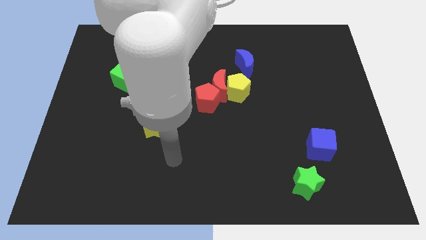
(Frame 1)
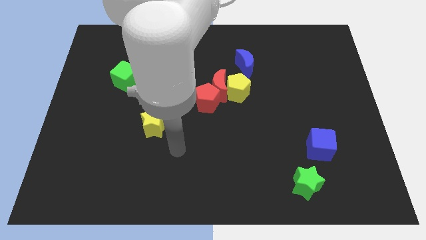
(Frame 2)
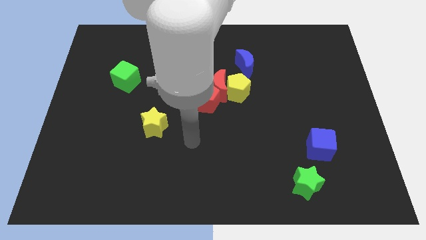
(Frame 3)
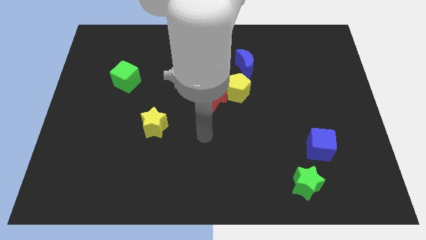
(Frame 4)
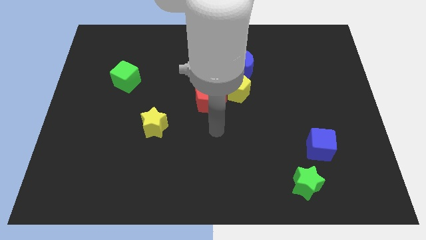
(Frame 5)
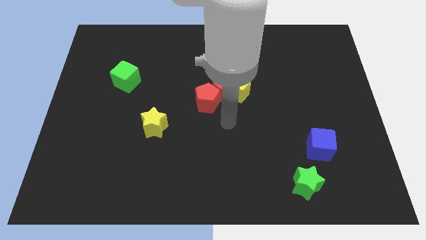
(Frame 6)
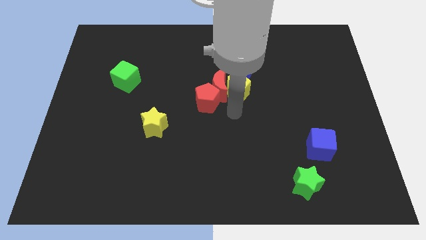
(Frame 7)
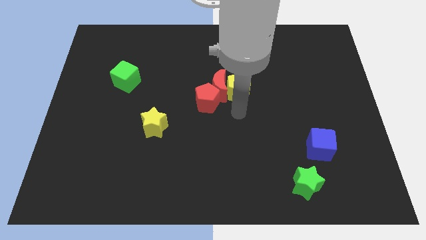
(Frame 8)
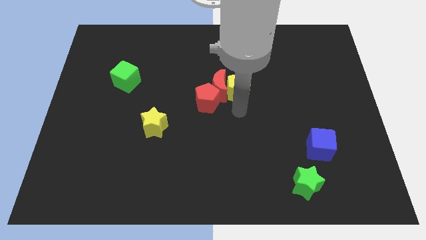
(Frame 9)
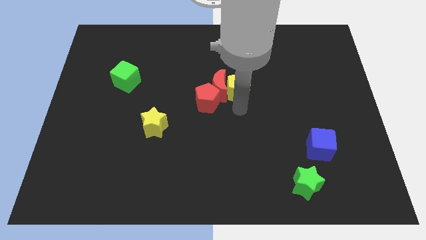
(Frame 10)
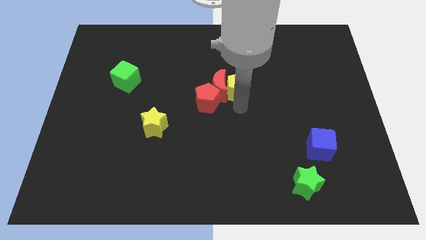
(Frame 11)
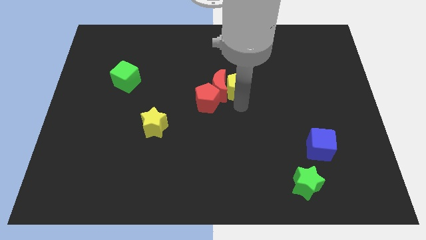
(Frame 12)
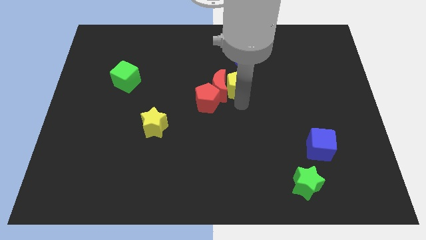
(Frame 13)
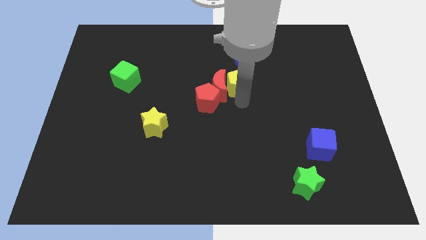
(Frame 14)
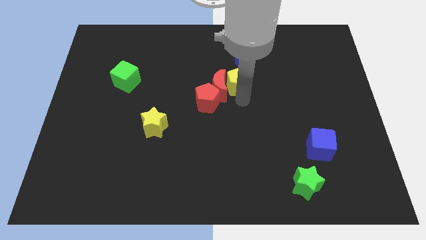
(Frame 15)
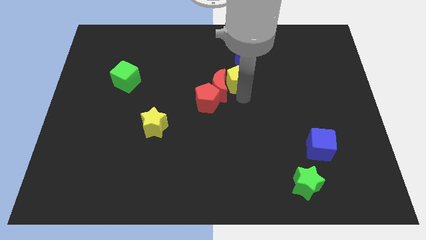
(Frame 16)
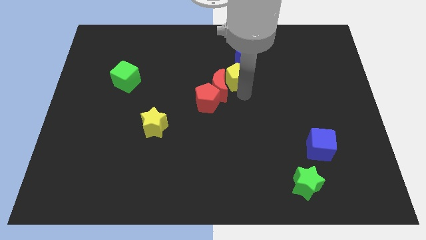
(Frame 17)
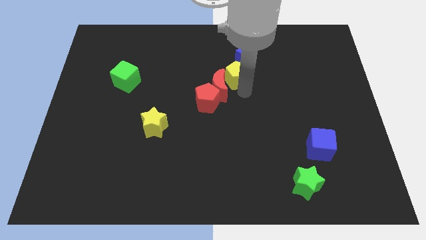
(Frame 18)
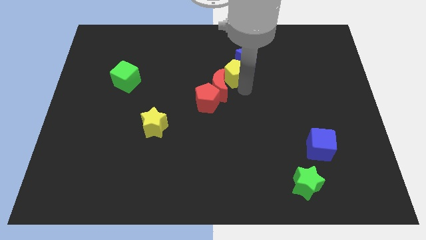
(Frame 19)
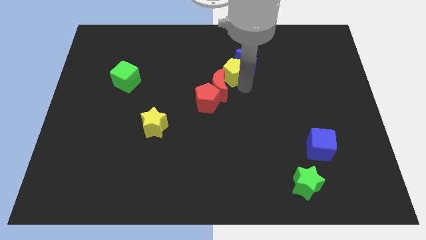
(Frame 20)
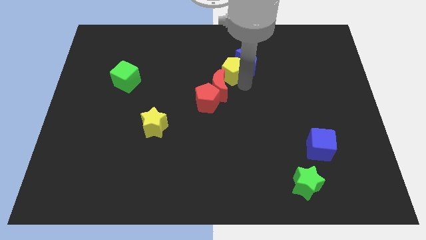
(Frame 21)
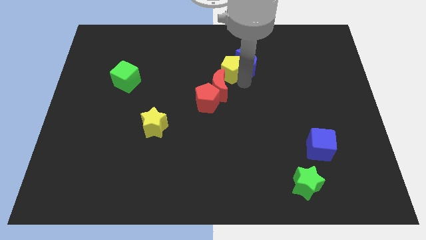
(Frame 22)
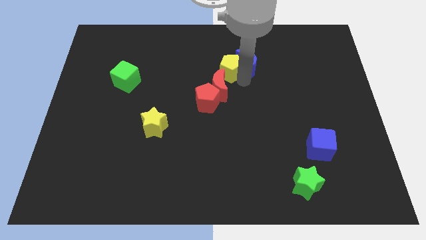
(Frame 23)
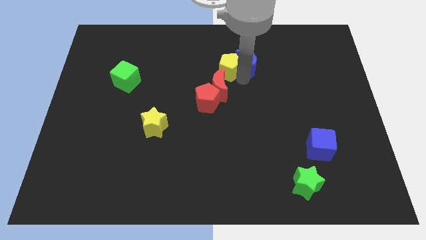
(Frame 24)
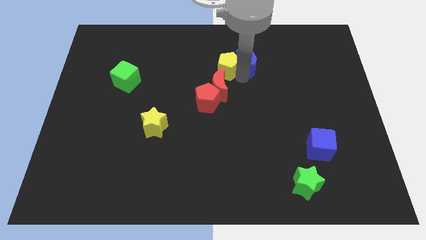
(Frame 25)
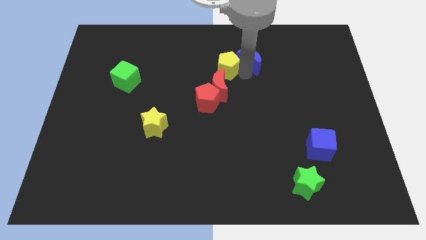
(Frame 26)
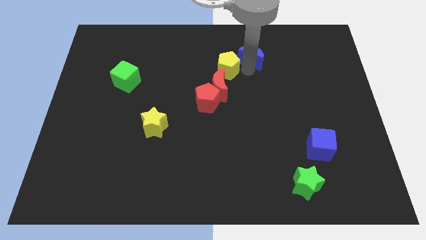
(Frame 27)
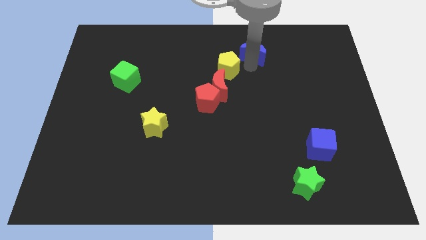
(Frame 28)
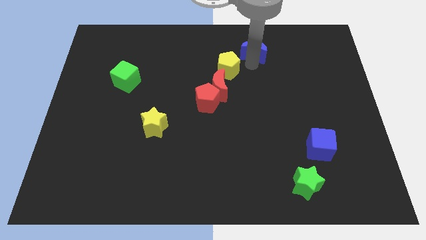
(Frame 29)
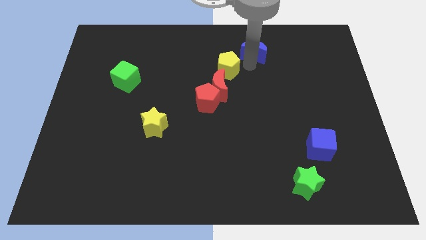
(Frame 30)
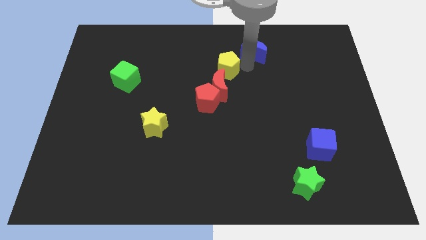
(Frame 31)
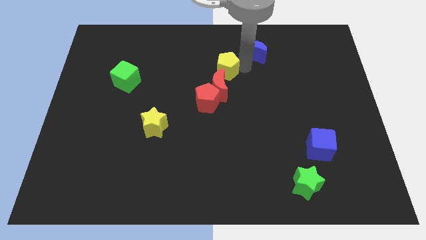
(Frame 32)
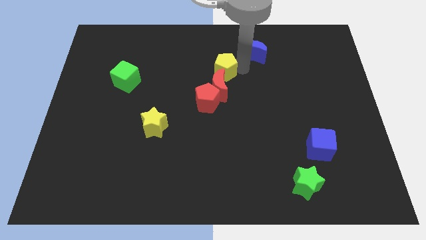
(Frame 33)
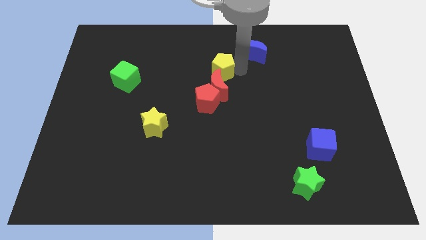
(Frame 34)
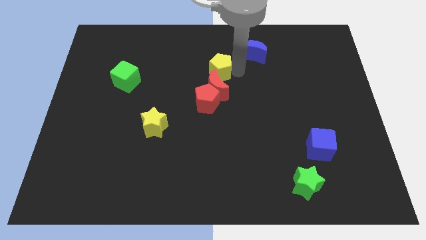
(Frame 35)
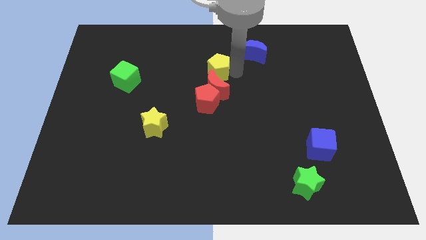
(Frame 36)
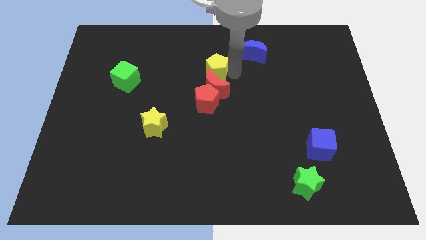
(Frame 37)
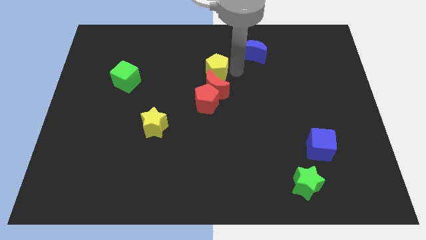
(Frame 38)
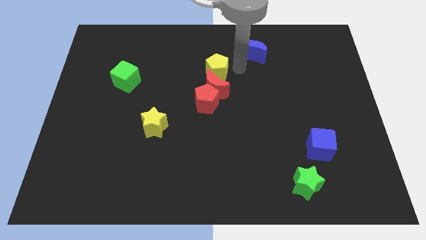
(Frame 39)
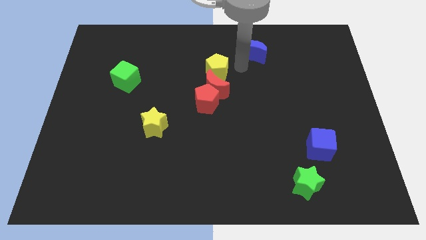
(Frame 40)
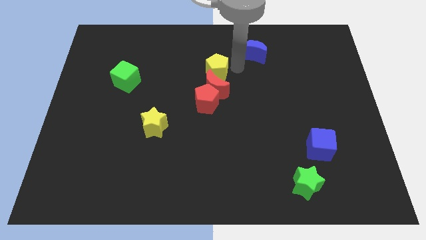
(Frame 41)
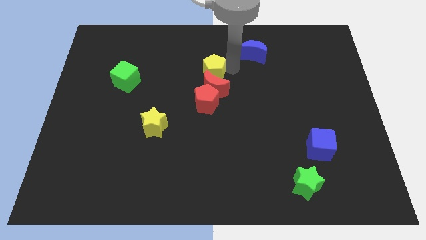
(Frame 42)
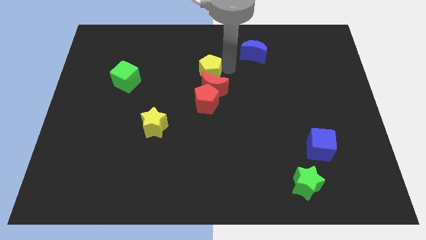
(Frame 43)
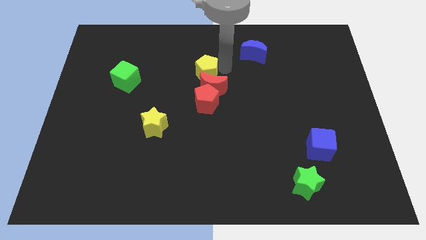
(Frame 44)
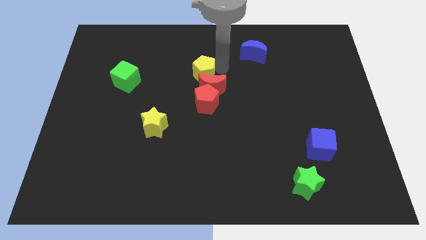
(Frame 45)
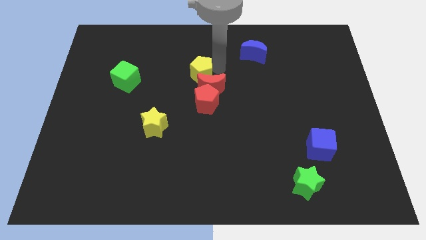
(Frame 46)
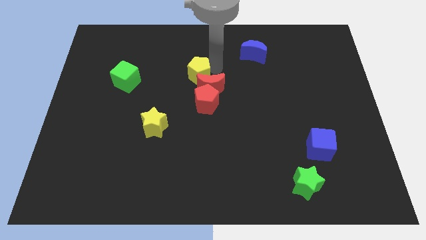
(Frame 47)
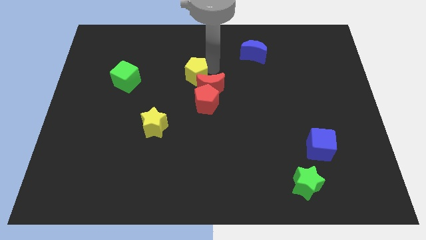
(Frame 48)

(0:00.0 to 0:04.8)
slide the yellow pentagon to the top left of the red pentagon

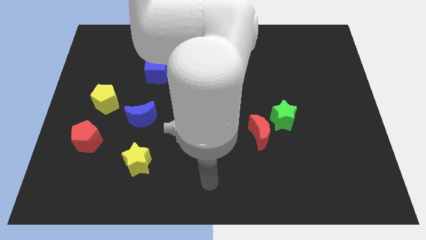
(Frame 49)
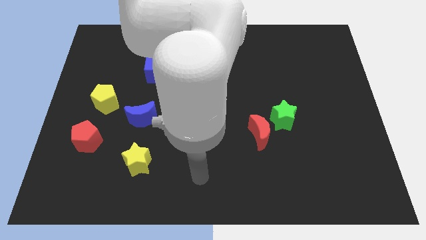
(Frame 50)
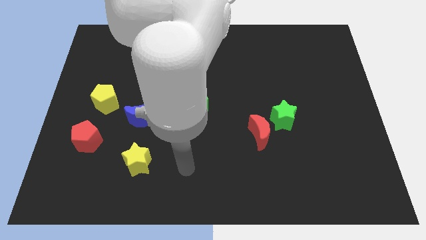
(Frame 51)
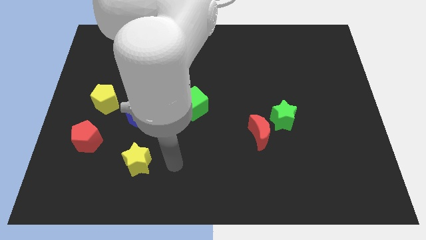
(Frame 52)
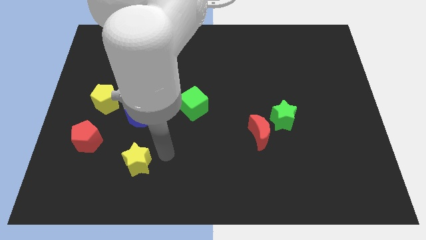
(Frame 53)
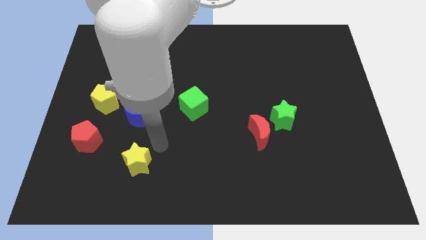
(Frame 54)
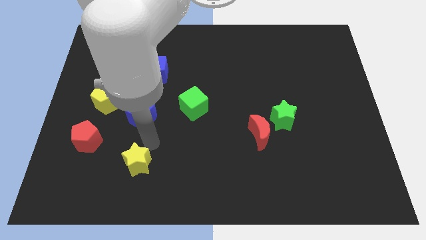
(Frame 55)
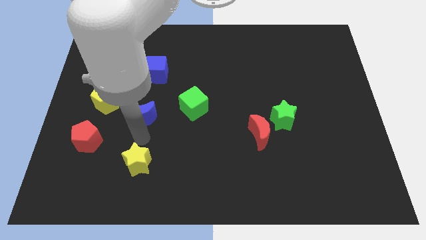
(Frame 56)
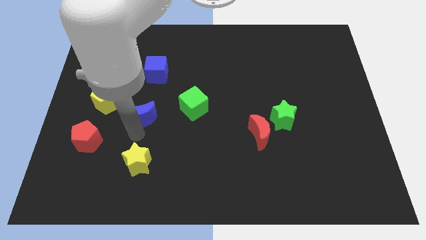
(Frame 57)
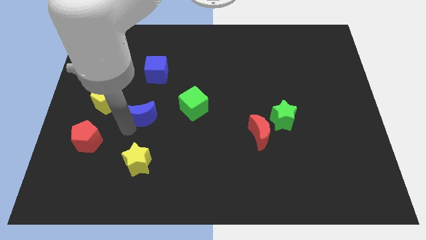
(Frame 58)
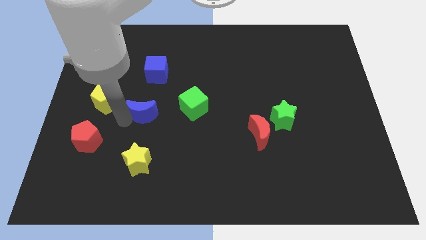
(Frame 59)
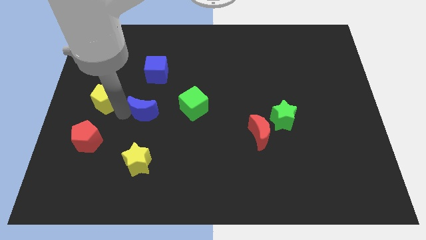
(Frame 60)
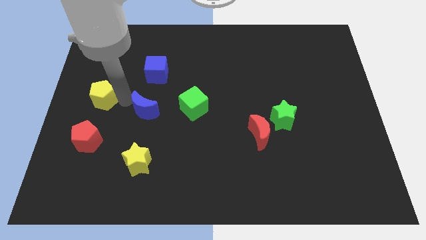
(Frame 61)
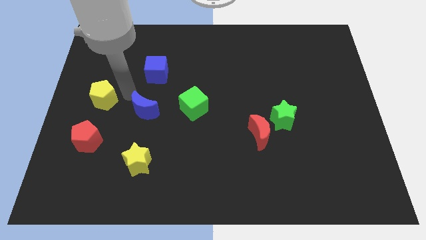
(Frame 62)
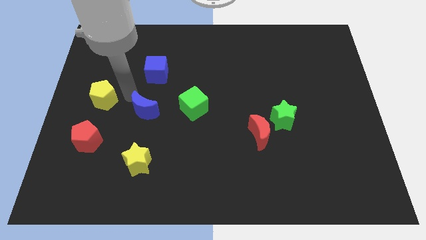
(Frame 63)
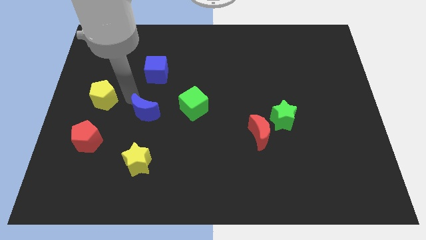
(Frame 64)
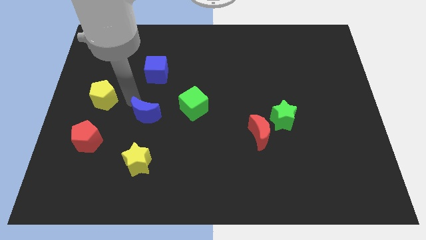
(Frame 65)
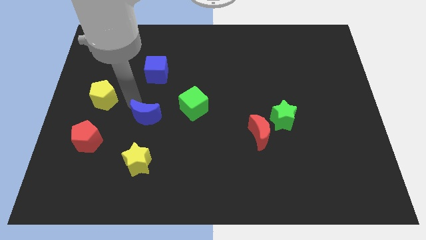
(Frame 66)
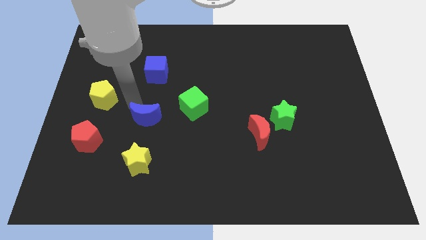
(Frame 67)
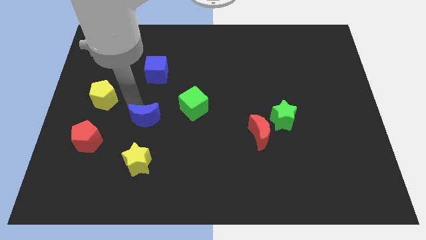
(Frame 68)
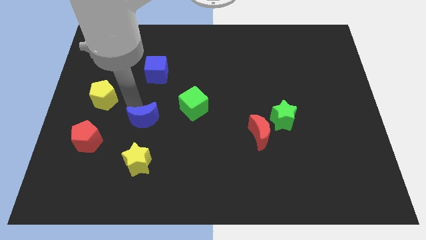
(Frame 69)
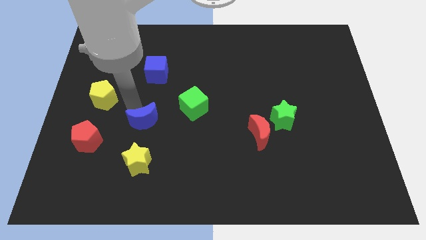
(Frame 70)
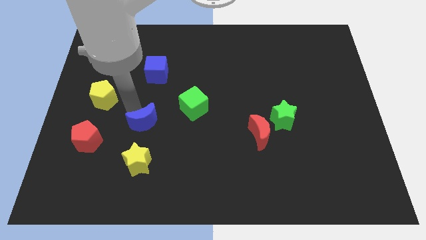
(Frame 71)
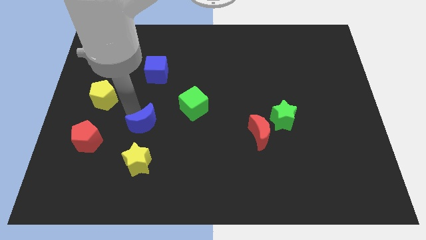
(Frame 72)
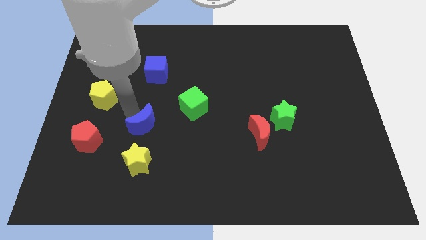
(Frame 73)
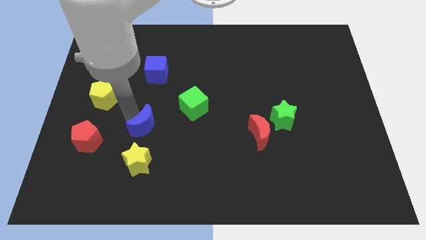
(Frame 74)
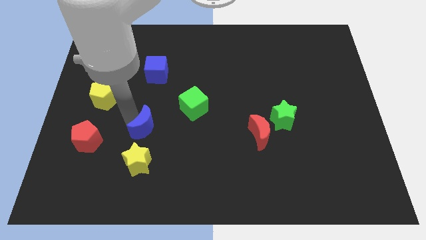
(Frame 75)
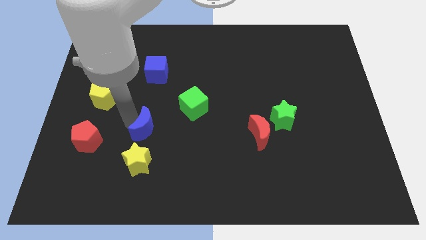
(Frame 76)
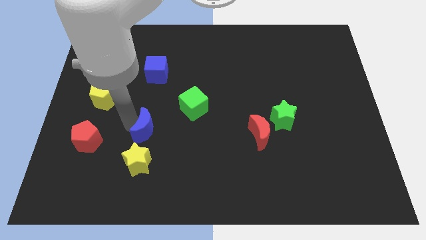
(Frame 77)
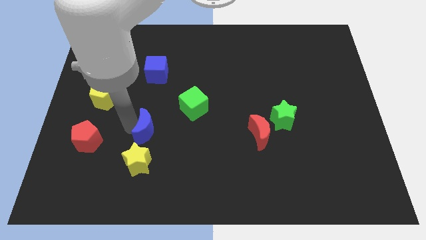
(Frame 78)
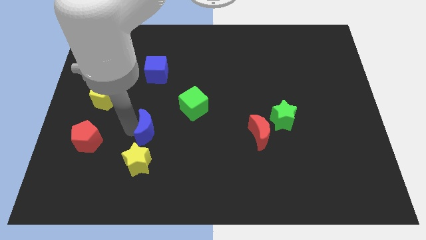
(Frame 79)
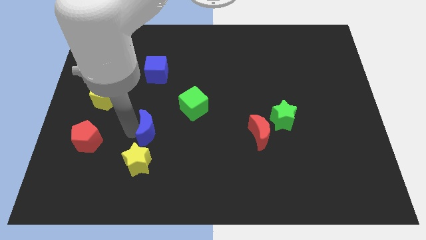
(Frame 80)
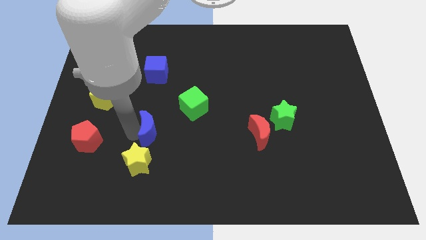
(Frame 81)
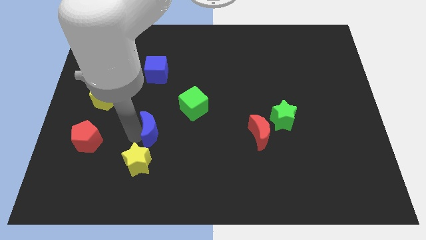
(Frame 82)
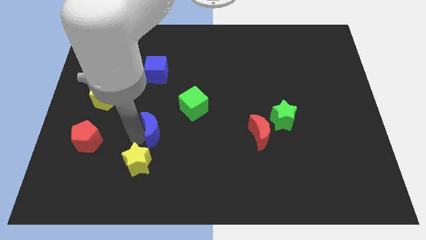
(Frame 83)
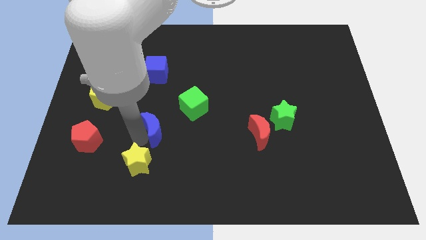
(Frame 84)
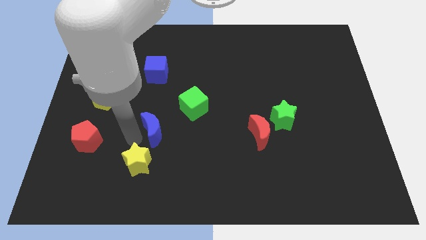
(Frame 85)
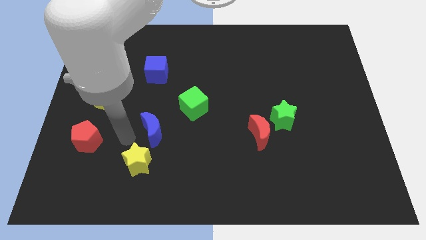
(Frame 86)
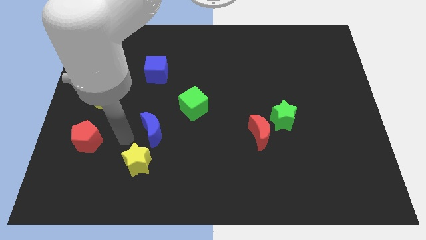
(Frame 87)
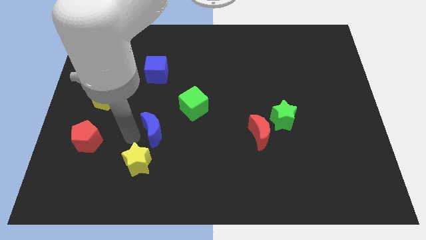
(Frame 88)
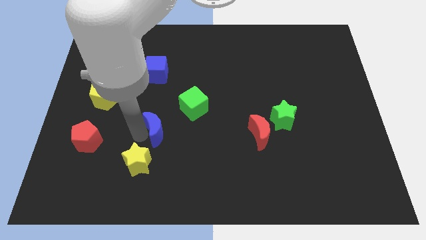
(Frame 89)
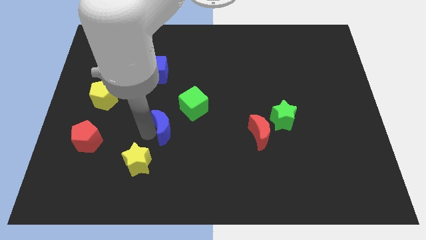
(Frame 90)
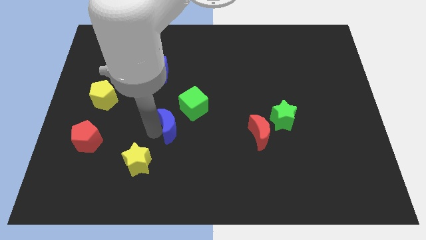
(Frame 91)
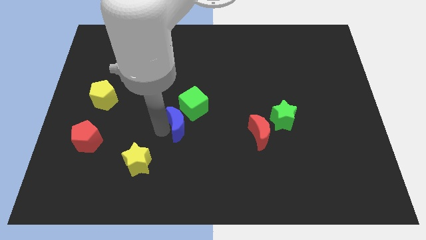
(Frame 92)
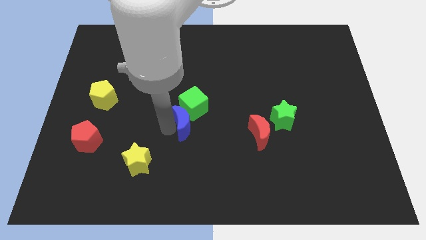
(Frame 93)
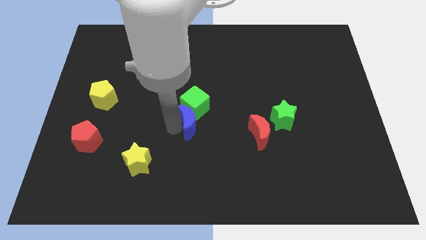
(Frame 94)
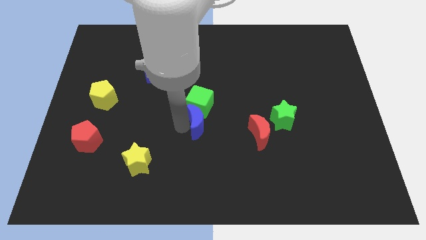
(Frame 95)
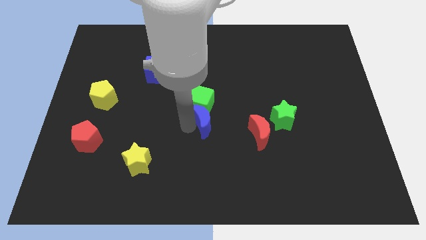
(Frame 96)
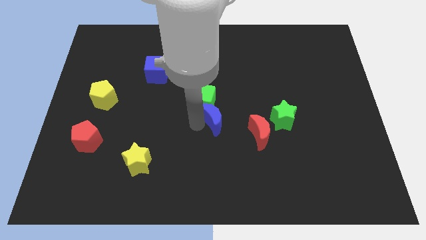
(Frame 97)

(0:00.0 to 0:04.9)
move the blue moon to the left of the green star
